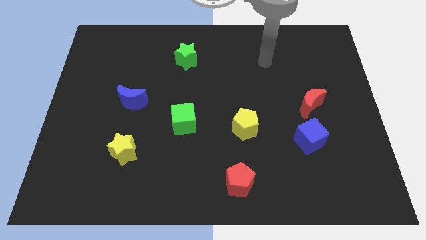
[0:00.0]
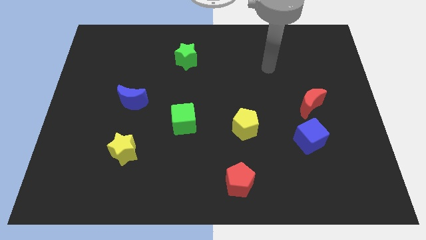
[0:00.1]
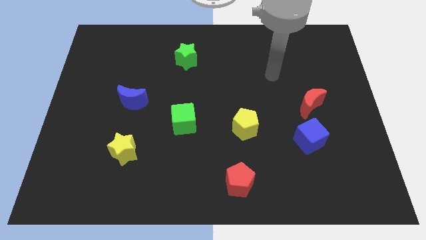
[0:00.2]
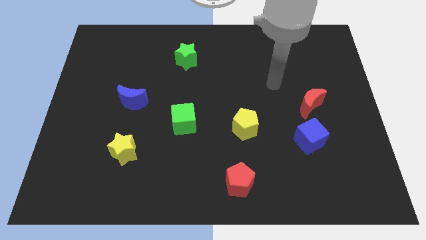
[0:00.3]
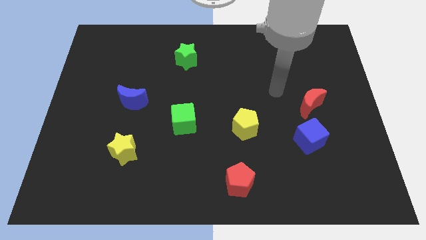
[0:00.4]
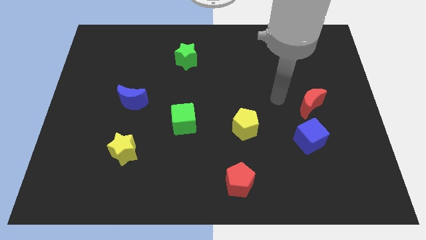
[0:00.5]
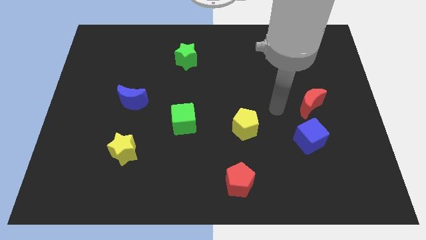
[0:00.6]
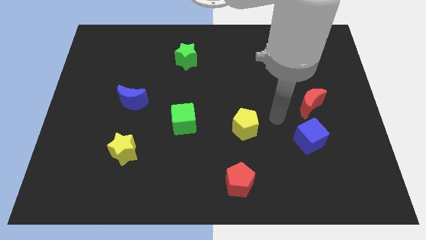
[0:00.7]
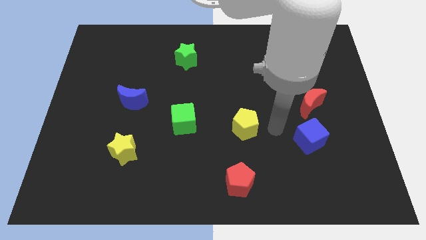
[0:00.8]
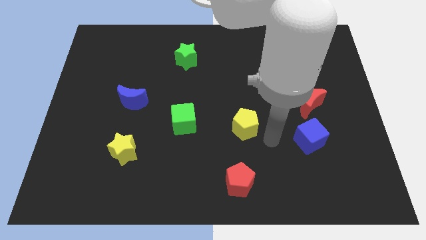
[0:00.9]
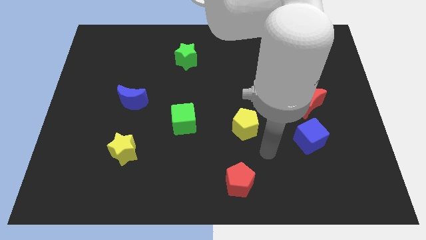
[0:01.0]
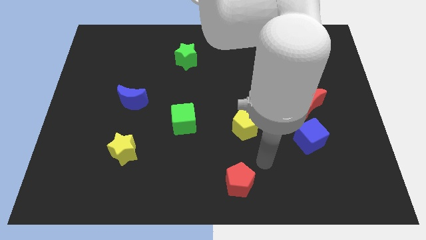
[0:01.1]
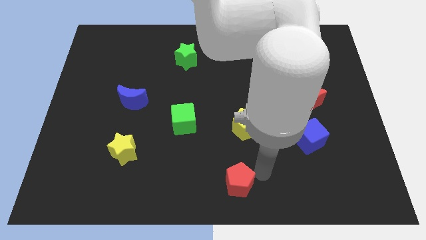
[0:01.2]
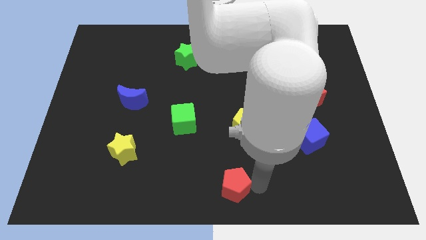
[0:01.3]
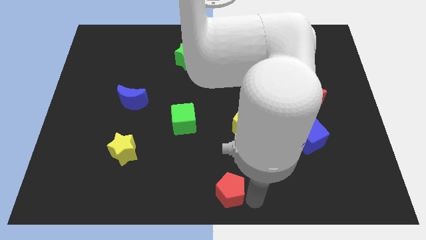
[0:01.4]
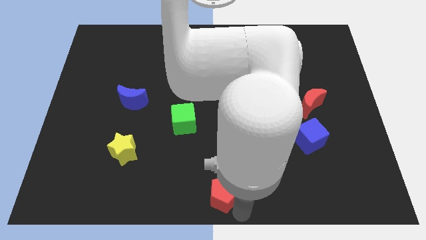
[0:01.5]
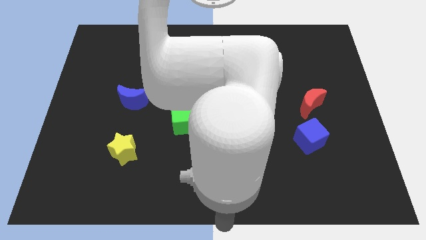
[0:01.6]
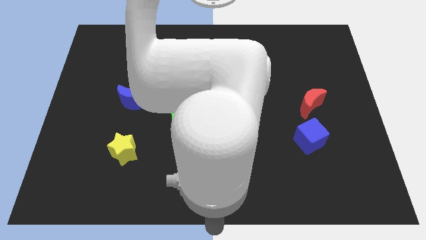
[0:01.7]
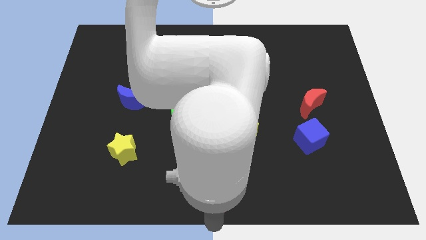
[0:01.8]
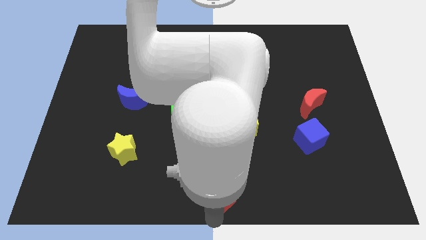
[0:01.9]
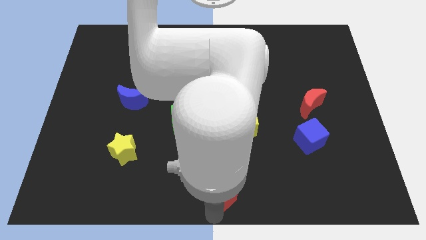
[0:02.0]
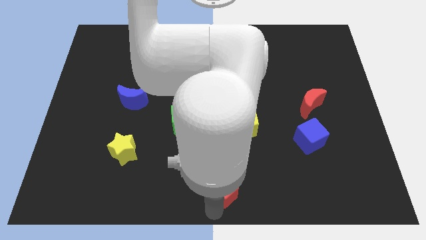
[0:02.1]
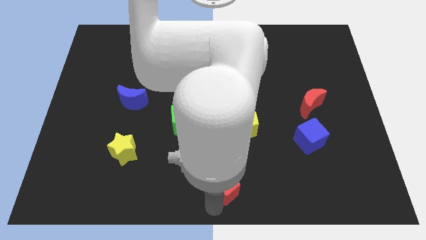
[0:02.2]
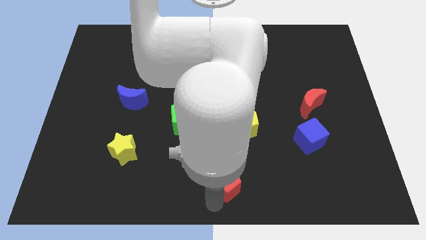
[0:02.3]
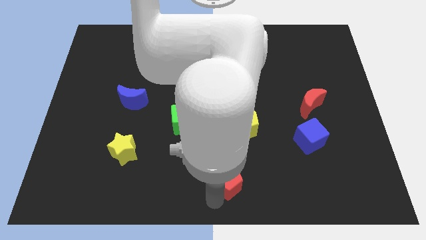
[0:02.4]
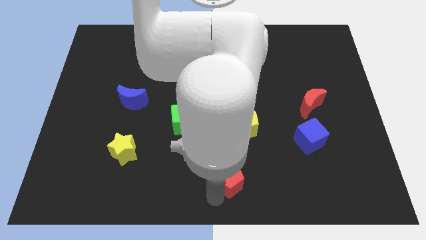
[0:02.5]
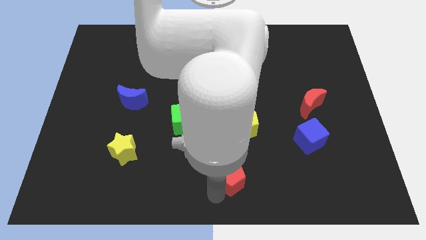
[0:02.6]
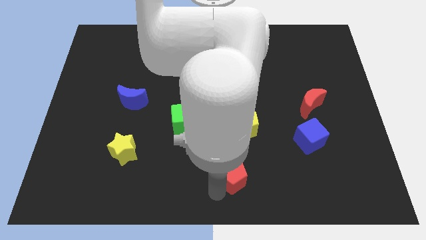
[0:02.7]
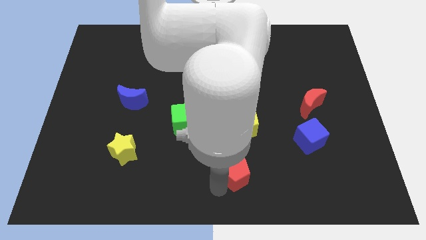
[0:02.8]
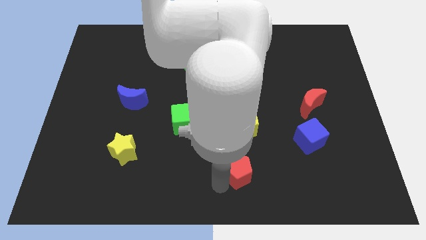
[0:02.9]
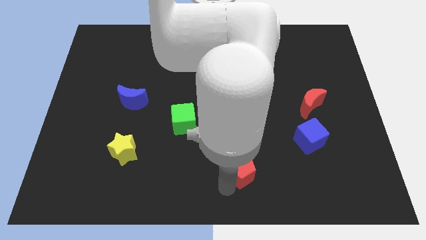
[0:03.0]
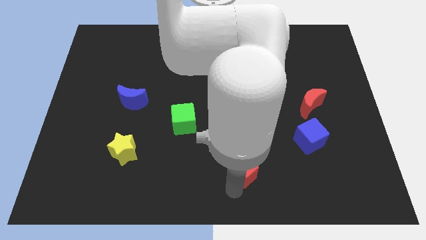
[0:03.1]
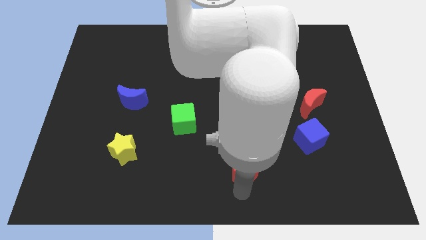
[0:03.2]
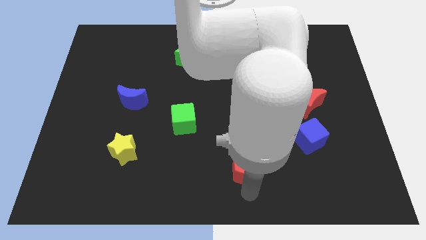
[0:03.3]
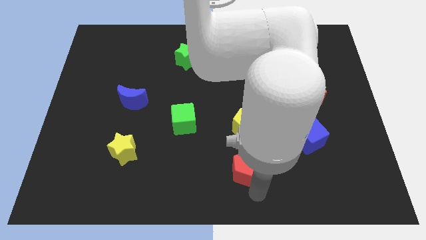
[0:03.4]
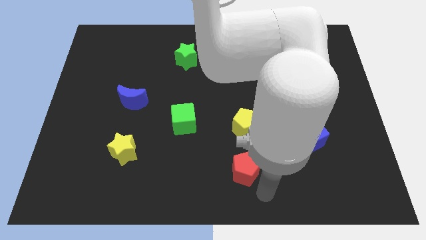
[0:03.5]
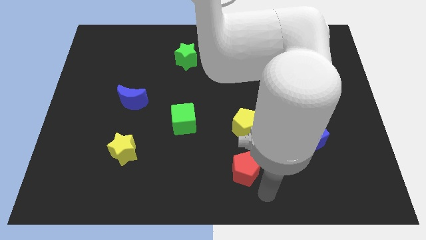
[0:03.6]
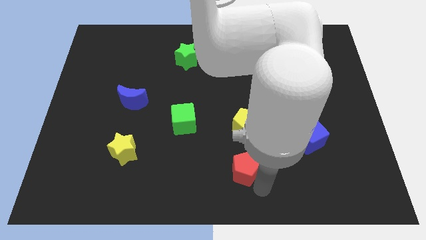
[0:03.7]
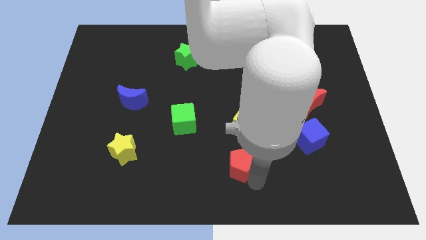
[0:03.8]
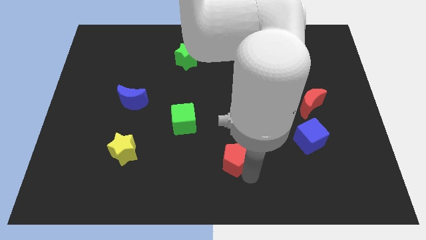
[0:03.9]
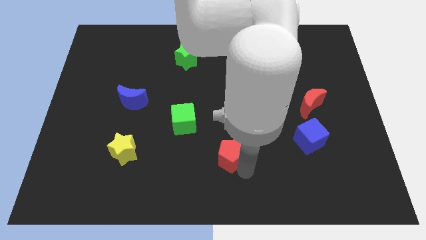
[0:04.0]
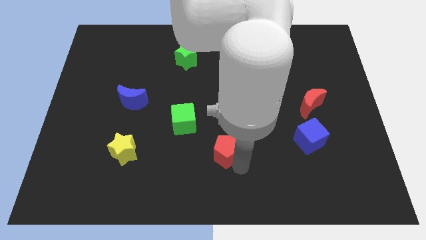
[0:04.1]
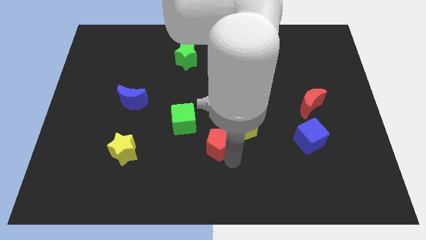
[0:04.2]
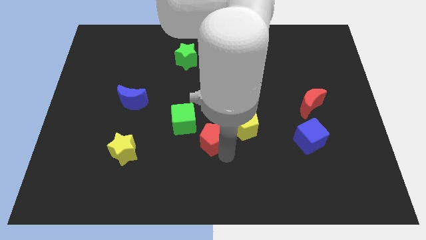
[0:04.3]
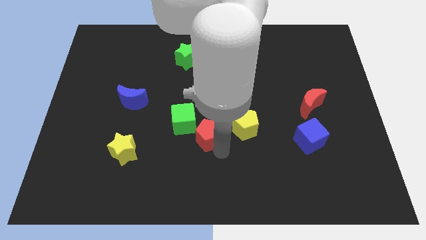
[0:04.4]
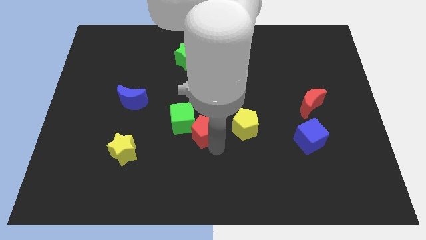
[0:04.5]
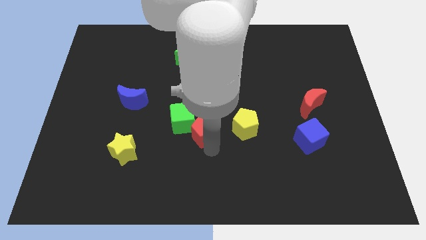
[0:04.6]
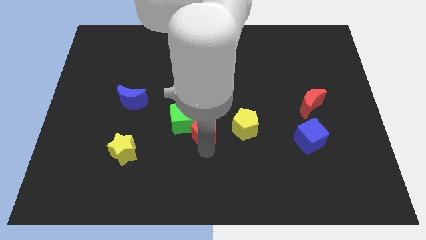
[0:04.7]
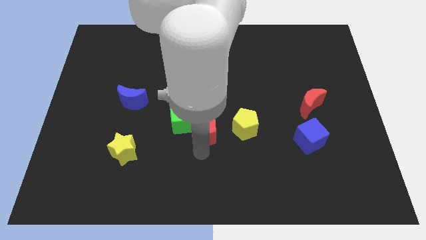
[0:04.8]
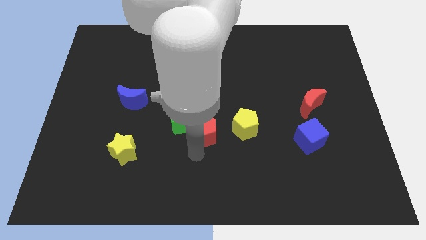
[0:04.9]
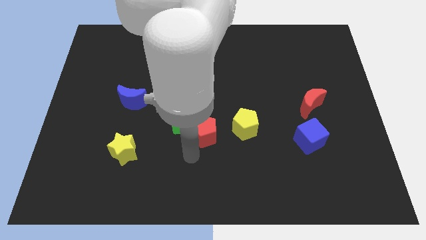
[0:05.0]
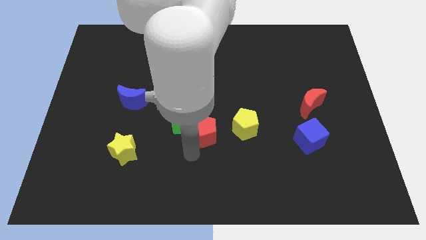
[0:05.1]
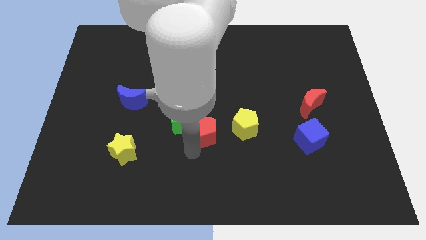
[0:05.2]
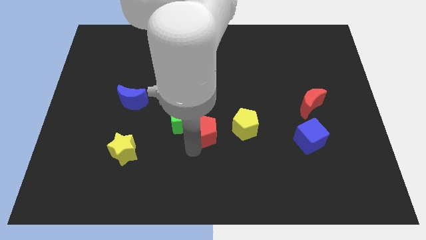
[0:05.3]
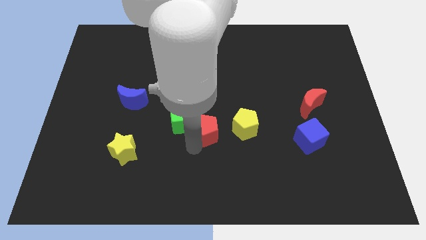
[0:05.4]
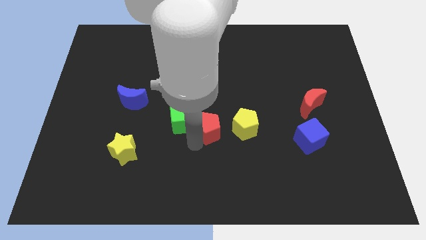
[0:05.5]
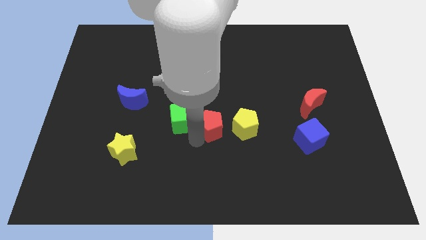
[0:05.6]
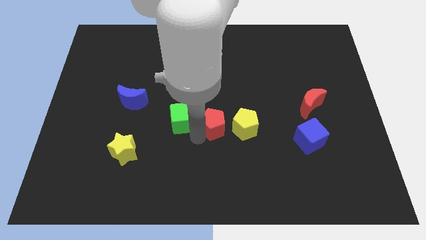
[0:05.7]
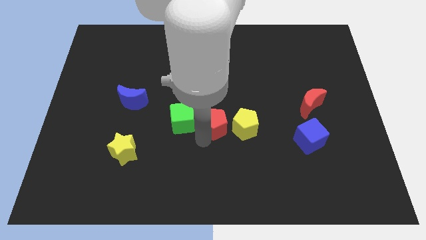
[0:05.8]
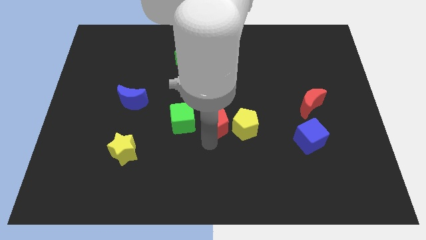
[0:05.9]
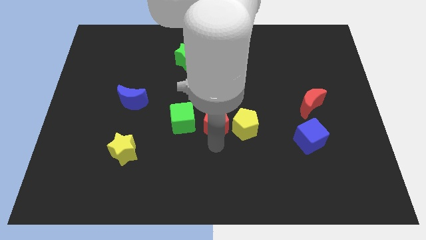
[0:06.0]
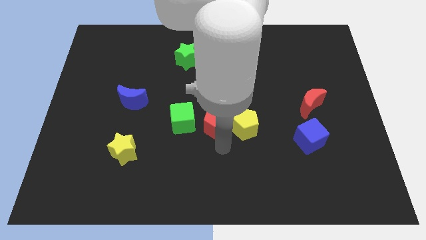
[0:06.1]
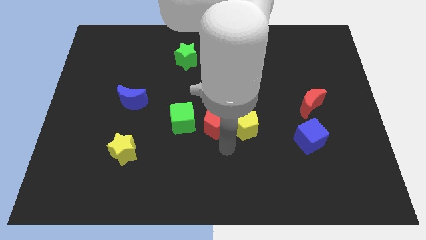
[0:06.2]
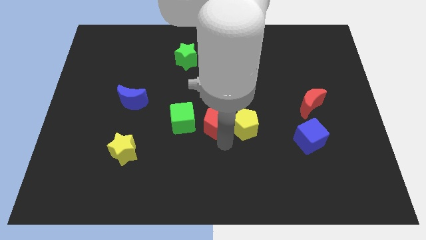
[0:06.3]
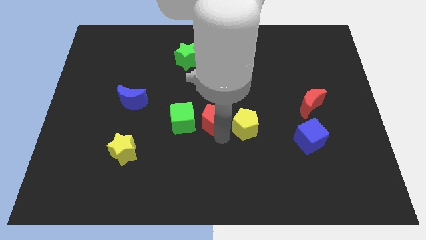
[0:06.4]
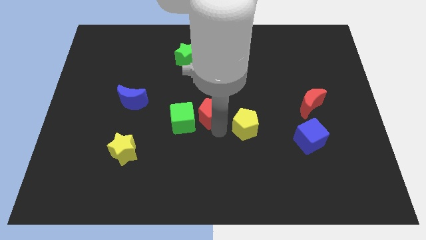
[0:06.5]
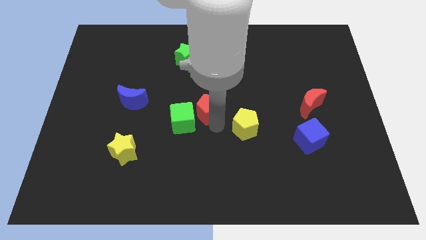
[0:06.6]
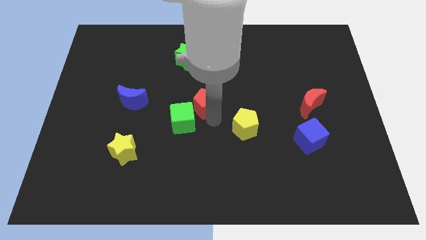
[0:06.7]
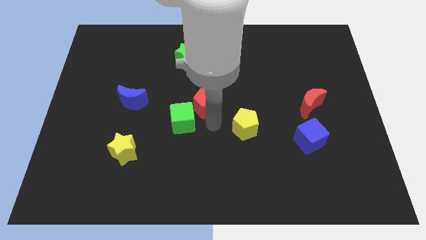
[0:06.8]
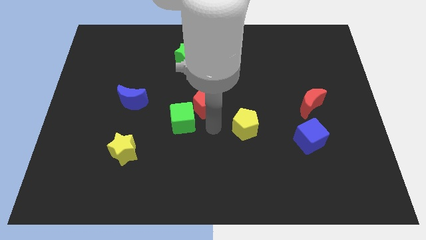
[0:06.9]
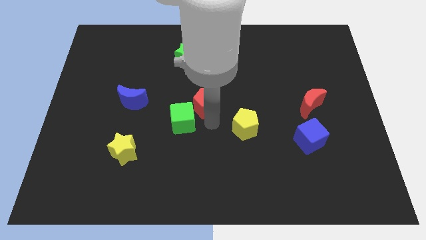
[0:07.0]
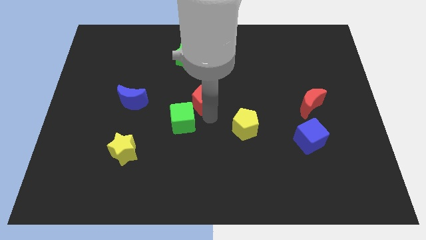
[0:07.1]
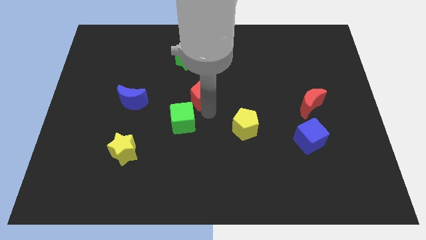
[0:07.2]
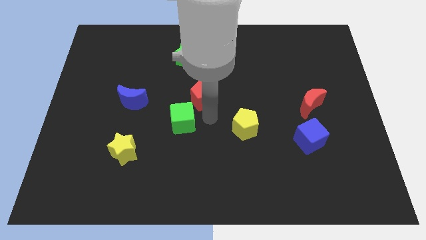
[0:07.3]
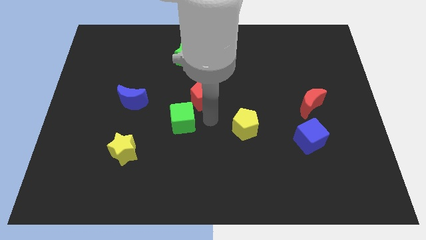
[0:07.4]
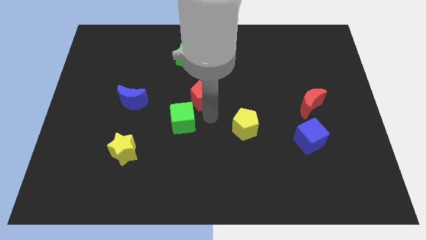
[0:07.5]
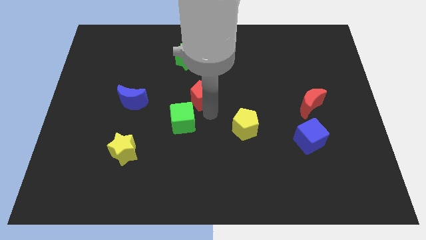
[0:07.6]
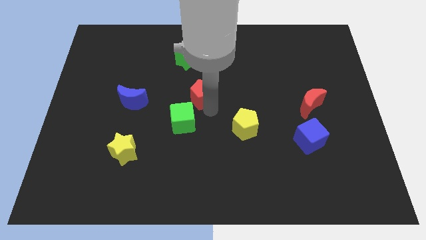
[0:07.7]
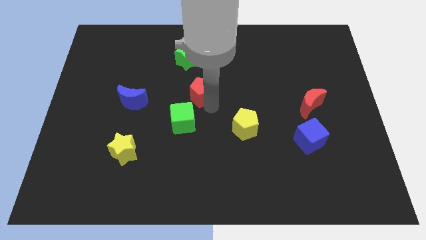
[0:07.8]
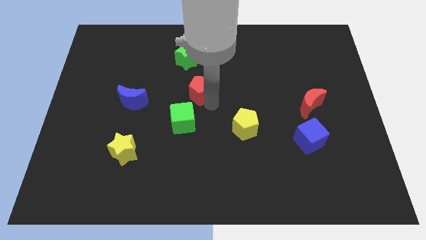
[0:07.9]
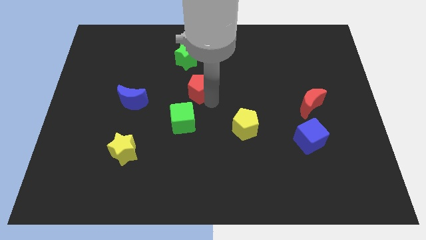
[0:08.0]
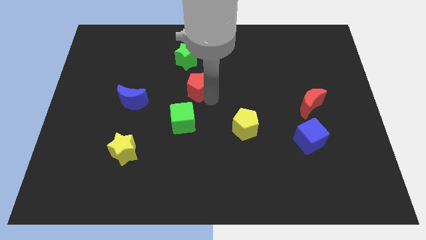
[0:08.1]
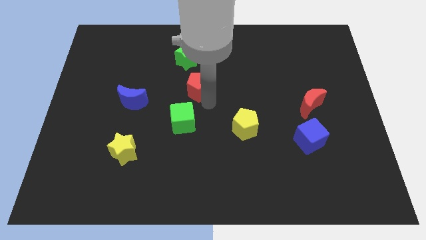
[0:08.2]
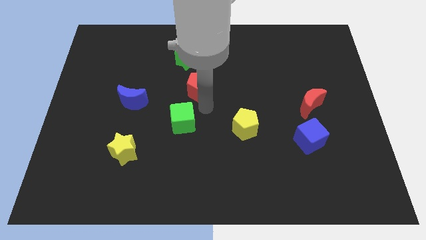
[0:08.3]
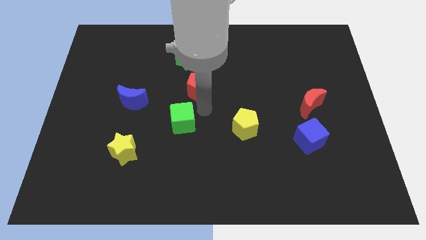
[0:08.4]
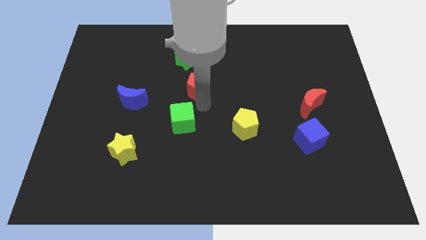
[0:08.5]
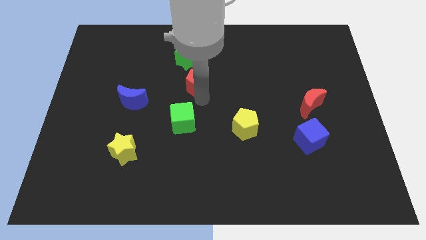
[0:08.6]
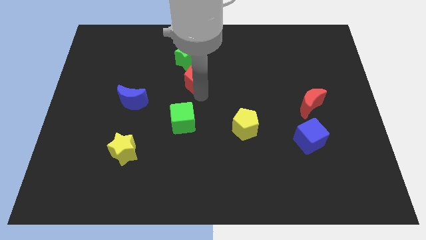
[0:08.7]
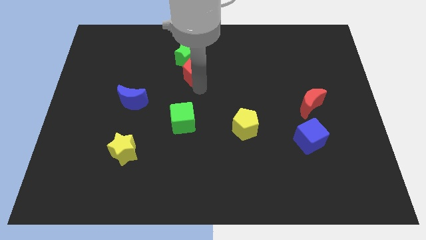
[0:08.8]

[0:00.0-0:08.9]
slide the red pentagon towards the green star
